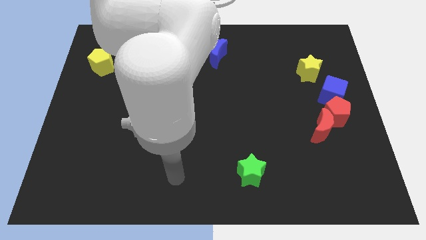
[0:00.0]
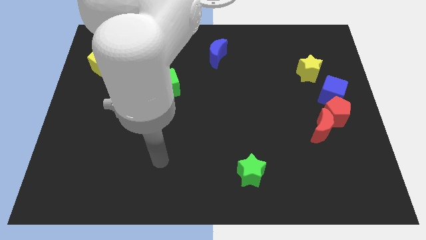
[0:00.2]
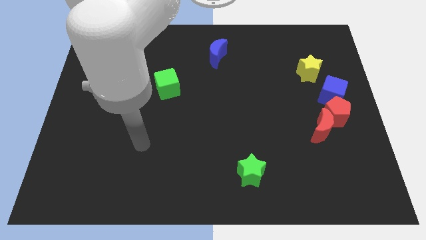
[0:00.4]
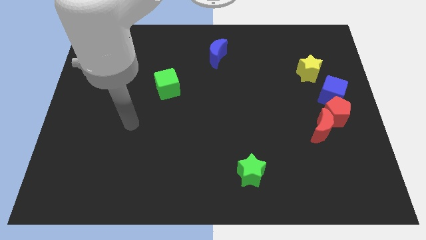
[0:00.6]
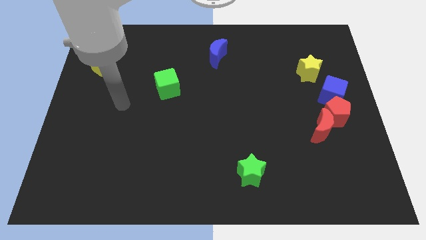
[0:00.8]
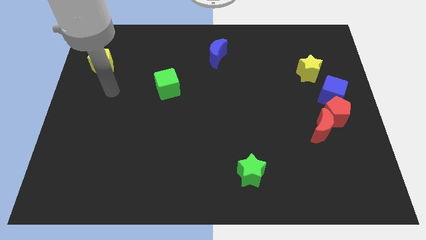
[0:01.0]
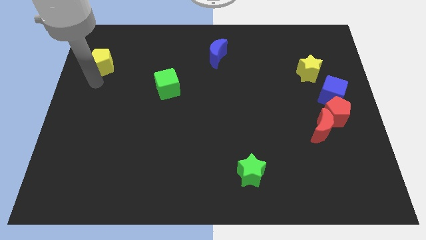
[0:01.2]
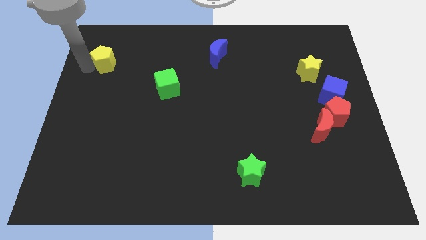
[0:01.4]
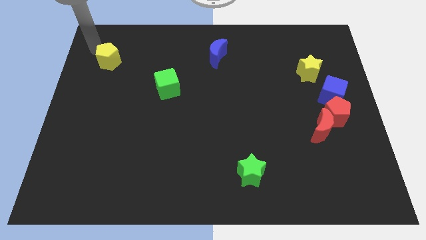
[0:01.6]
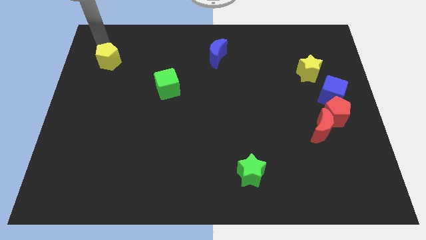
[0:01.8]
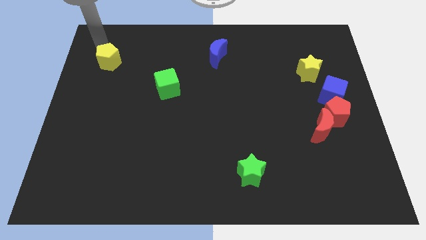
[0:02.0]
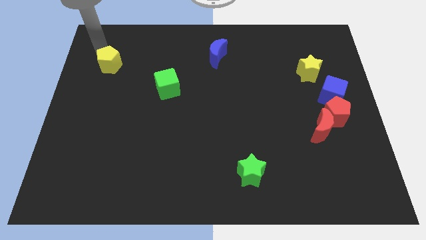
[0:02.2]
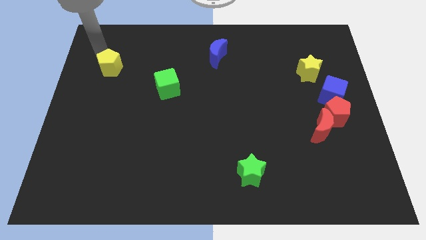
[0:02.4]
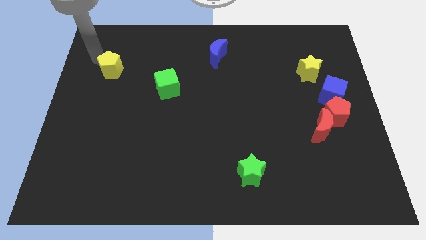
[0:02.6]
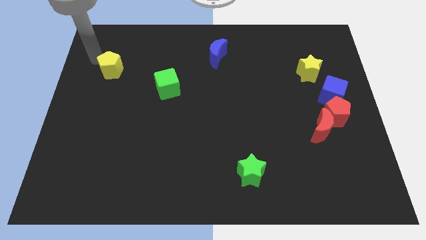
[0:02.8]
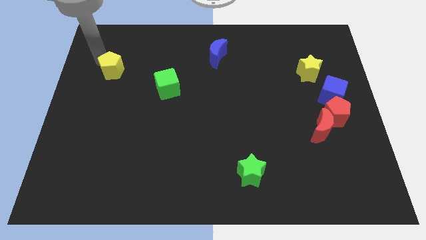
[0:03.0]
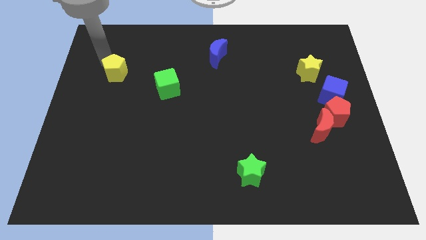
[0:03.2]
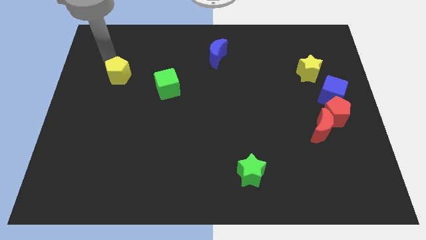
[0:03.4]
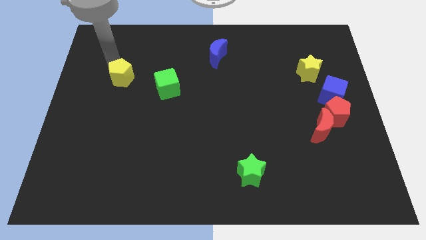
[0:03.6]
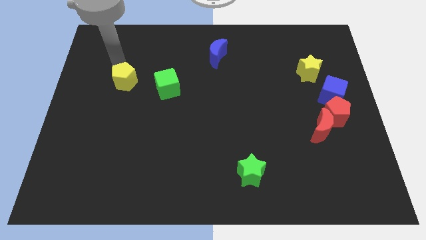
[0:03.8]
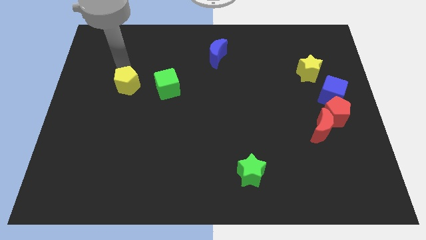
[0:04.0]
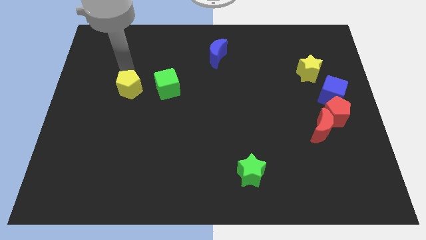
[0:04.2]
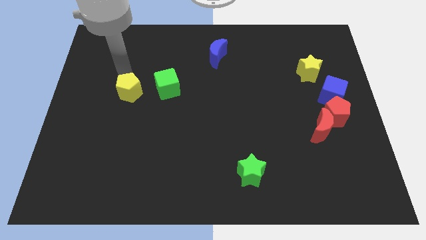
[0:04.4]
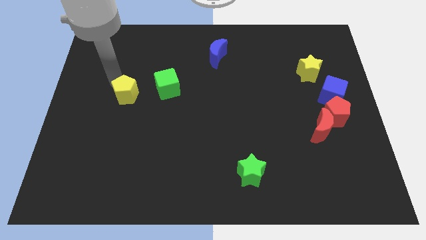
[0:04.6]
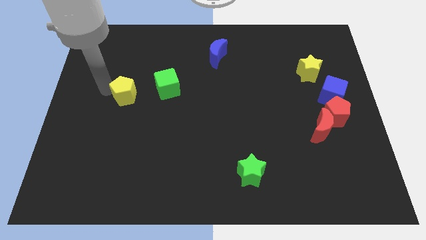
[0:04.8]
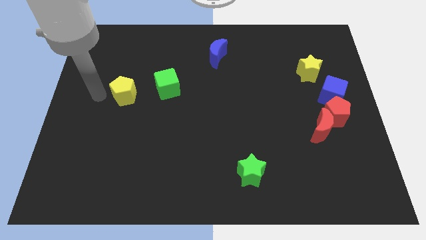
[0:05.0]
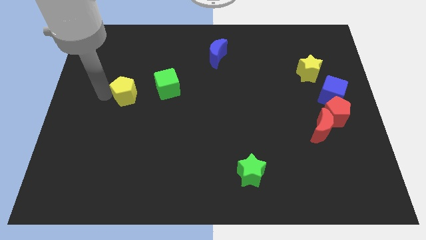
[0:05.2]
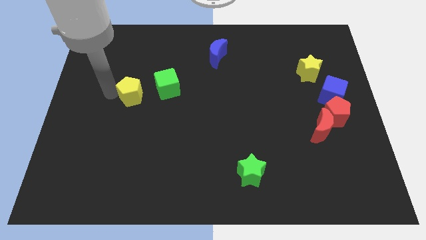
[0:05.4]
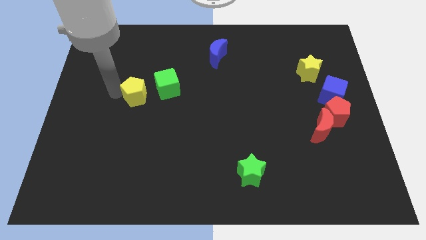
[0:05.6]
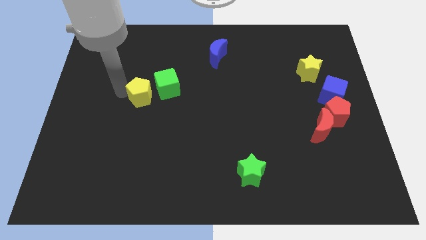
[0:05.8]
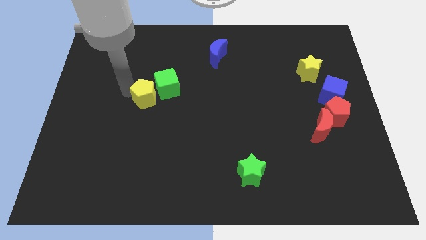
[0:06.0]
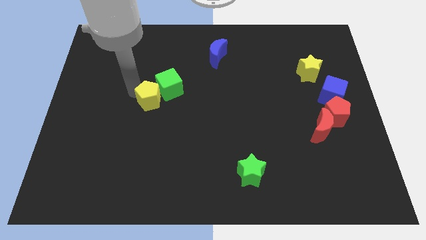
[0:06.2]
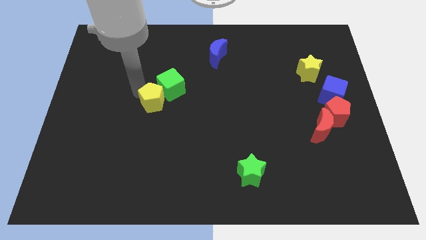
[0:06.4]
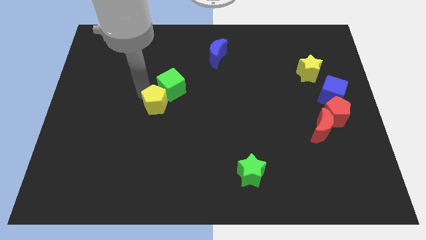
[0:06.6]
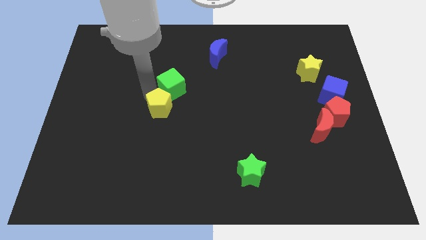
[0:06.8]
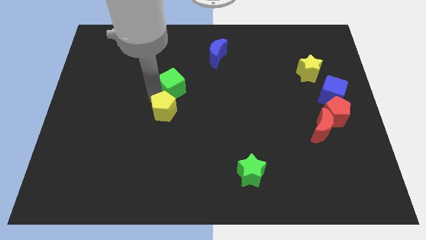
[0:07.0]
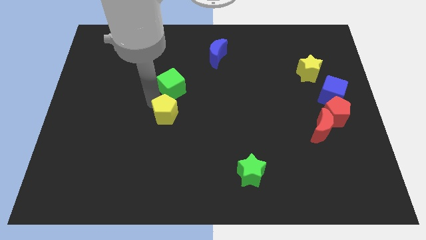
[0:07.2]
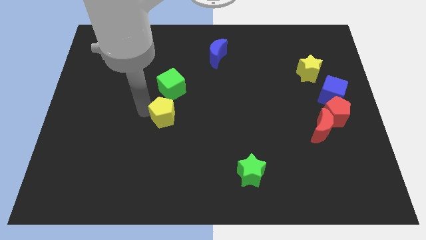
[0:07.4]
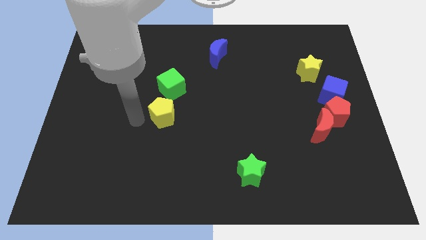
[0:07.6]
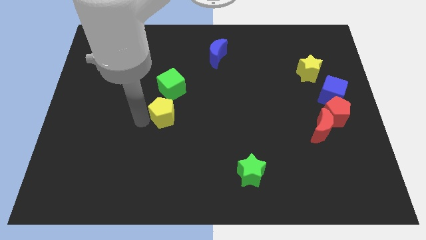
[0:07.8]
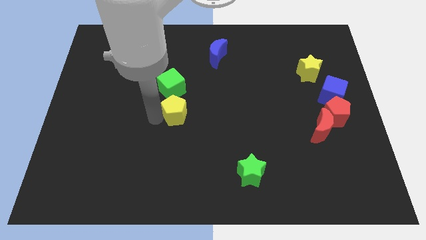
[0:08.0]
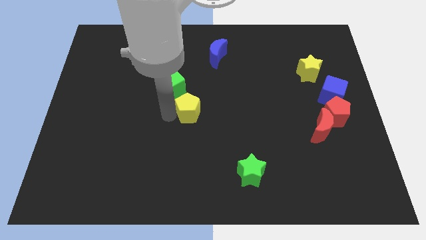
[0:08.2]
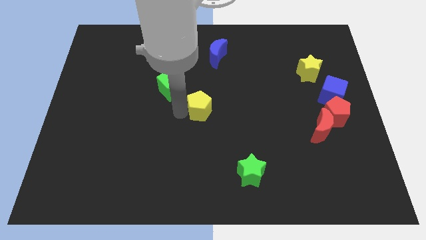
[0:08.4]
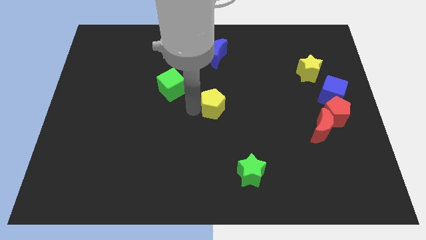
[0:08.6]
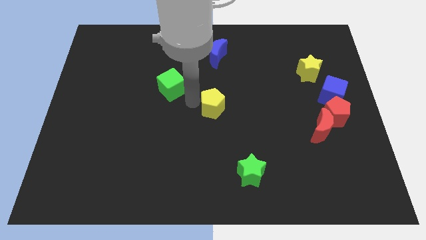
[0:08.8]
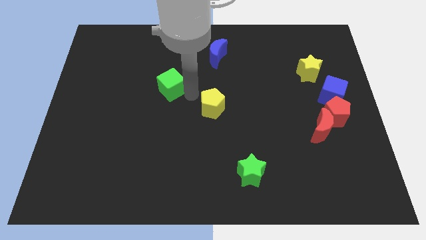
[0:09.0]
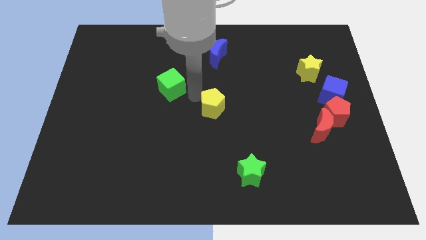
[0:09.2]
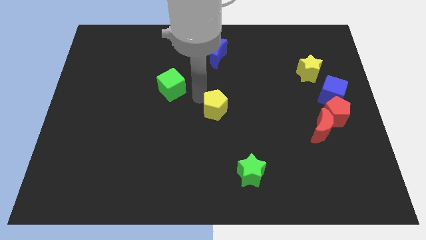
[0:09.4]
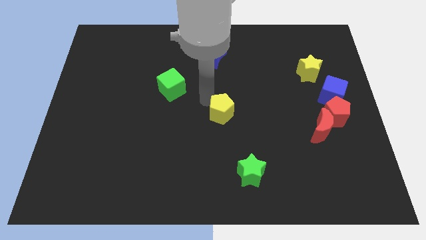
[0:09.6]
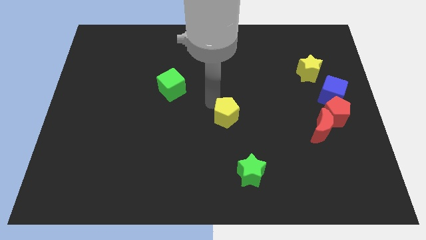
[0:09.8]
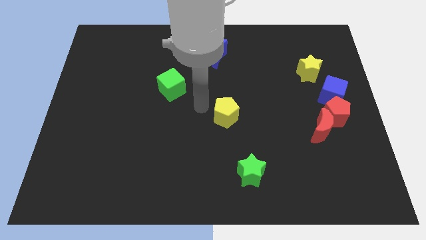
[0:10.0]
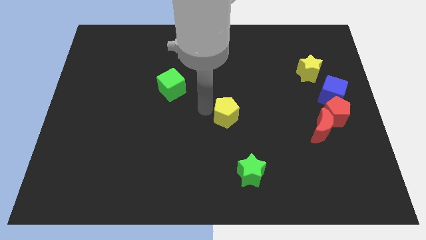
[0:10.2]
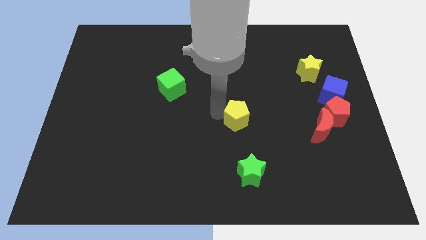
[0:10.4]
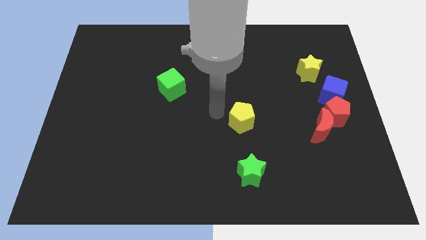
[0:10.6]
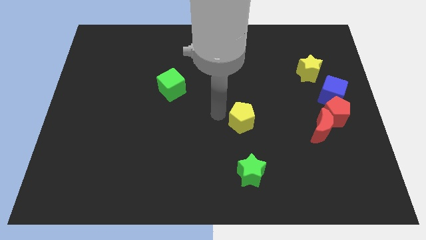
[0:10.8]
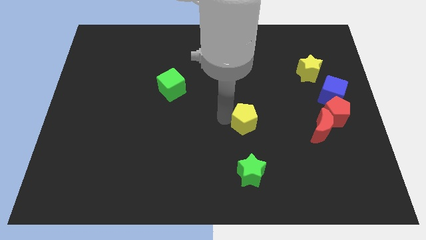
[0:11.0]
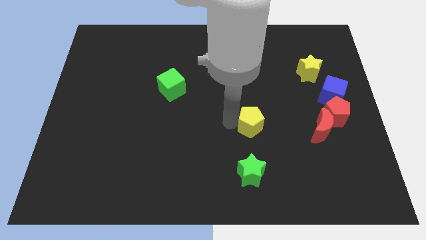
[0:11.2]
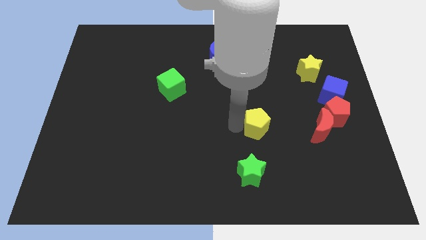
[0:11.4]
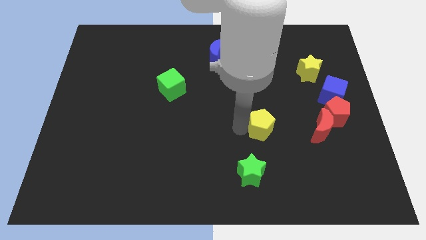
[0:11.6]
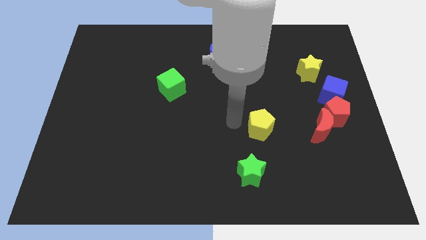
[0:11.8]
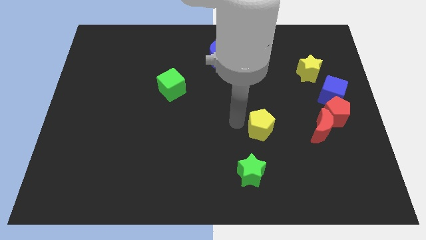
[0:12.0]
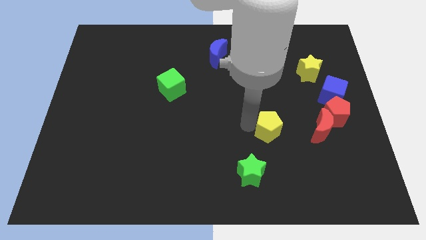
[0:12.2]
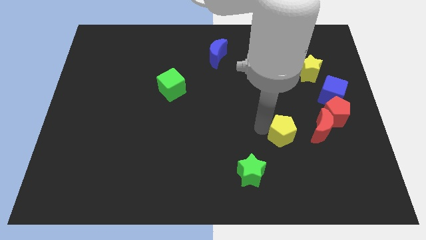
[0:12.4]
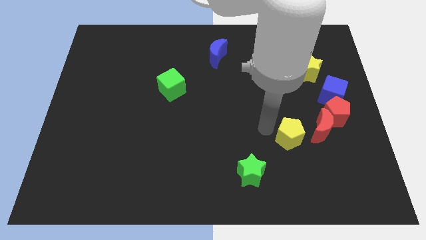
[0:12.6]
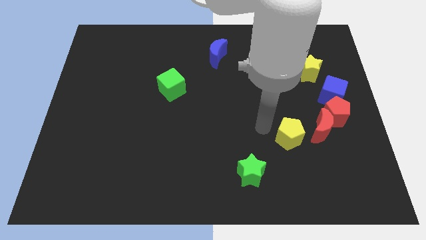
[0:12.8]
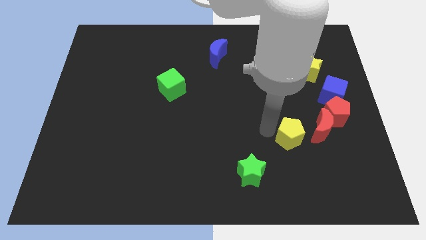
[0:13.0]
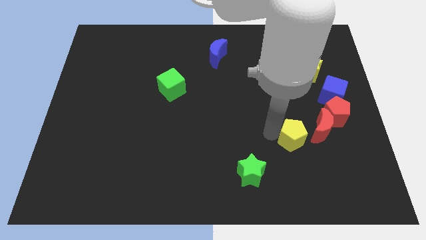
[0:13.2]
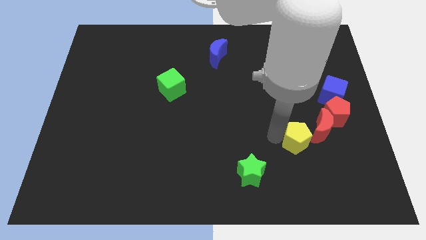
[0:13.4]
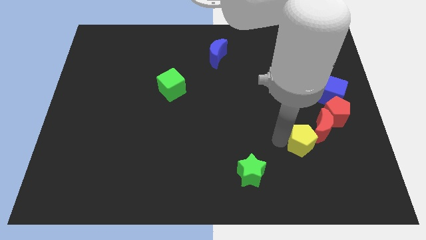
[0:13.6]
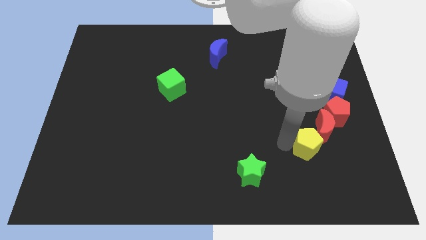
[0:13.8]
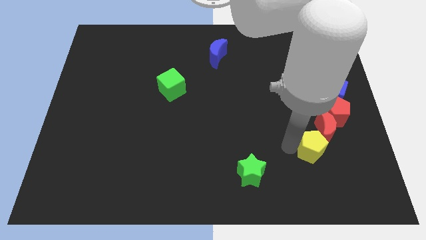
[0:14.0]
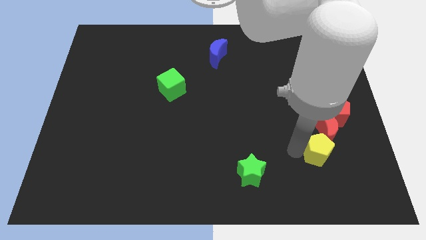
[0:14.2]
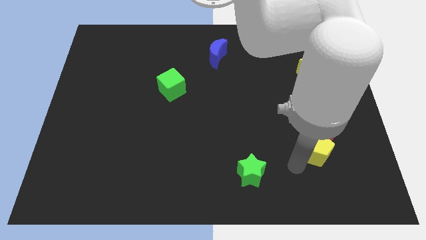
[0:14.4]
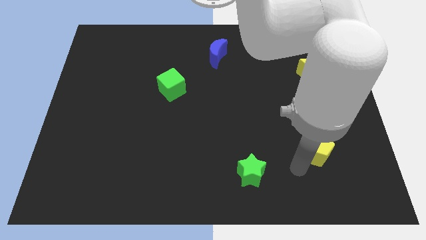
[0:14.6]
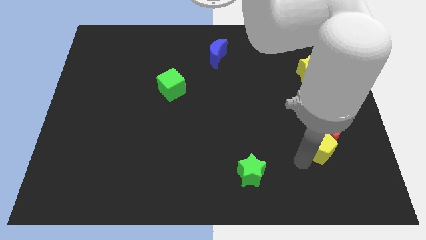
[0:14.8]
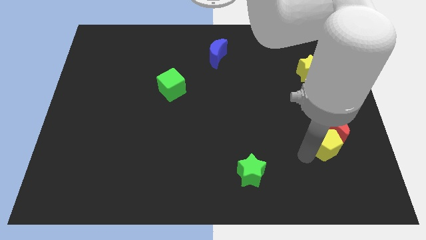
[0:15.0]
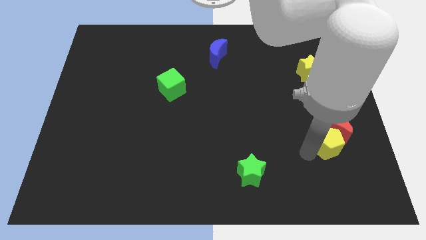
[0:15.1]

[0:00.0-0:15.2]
move the yellow pentagon below the blue cube
